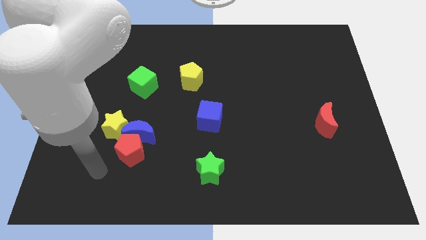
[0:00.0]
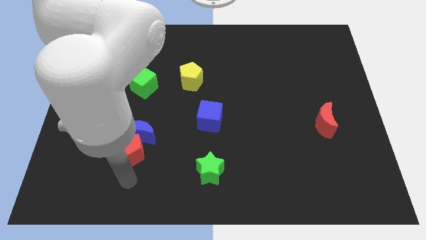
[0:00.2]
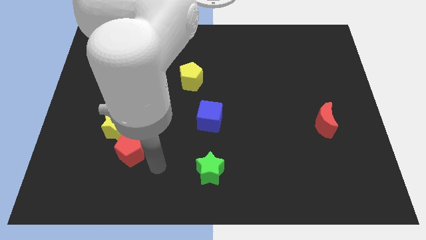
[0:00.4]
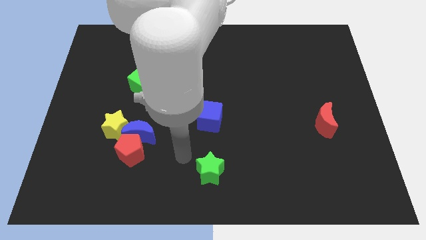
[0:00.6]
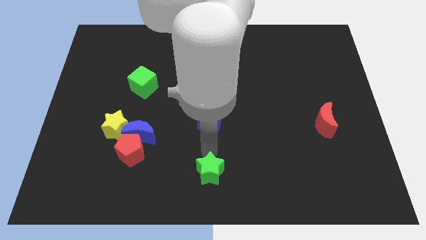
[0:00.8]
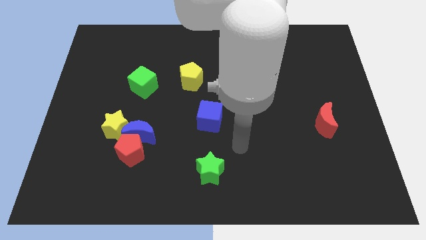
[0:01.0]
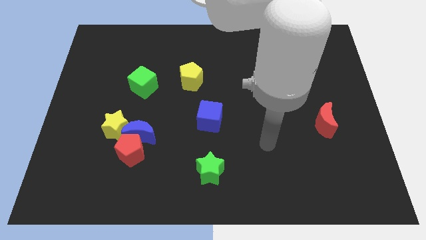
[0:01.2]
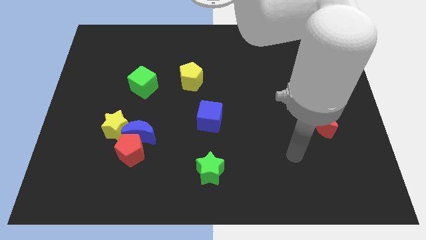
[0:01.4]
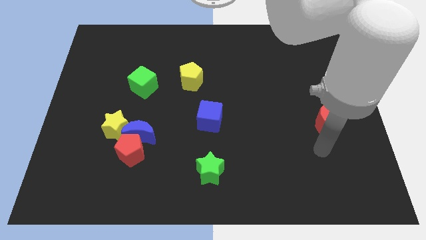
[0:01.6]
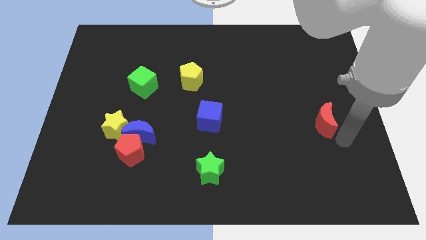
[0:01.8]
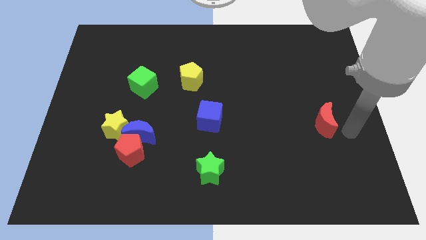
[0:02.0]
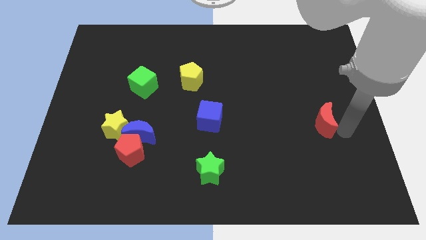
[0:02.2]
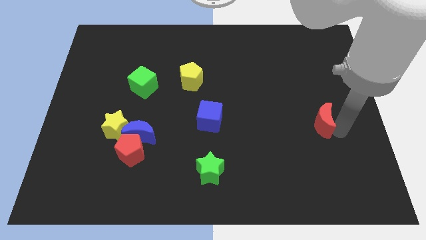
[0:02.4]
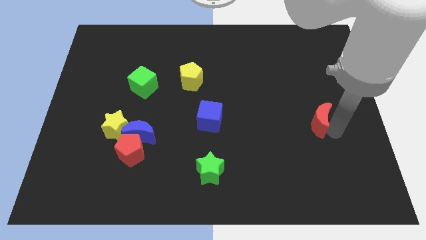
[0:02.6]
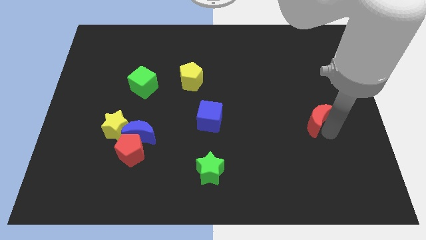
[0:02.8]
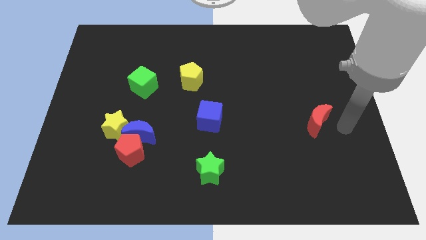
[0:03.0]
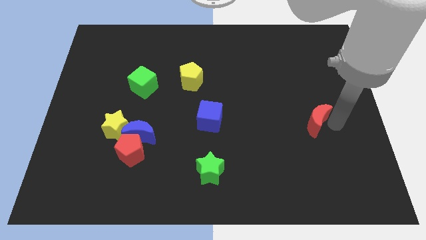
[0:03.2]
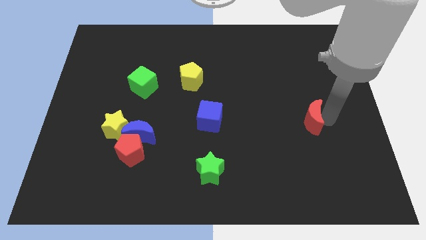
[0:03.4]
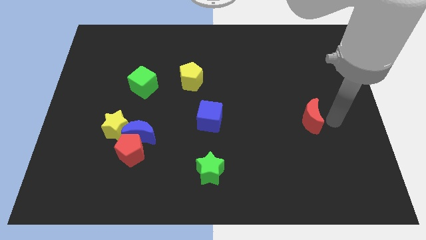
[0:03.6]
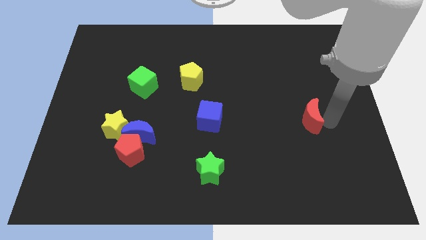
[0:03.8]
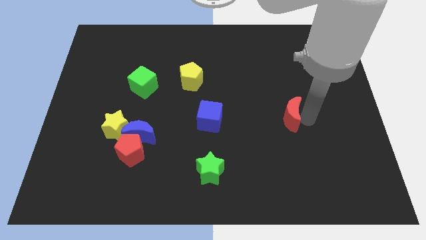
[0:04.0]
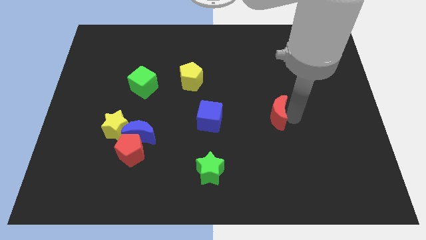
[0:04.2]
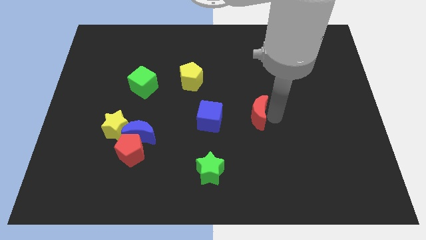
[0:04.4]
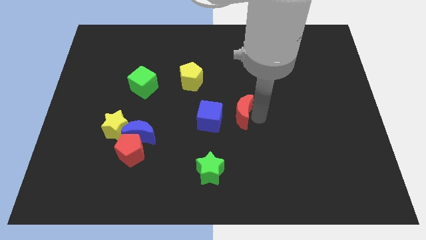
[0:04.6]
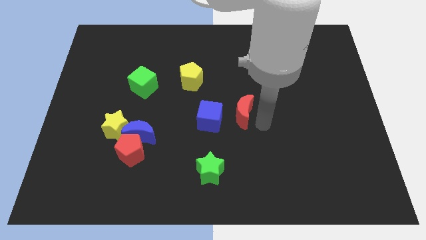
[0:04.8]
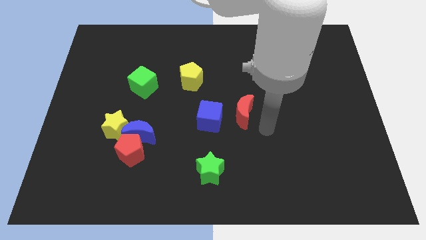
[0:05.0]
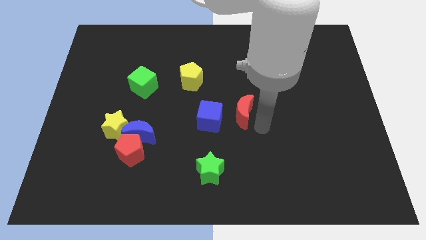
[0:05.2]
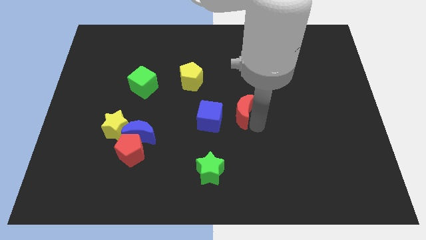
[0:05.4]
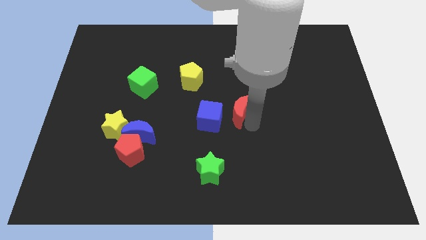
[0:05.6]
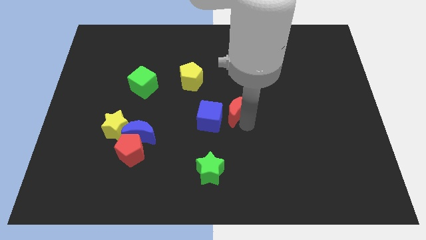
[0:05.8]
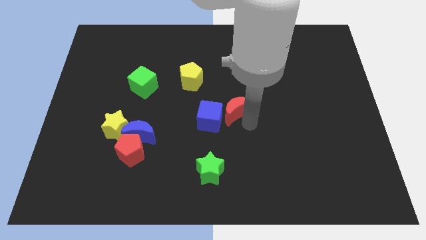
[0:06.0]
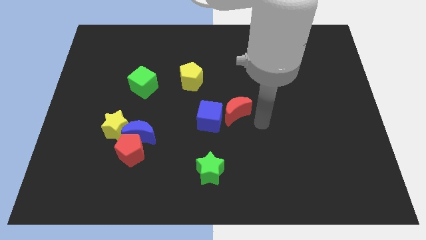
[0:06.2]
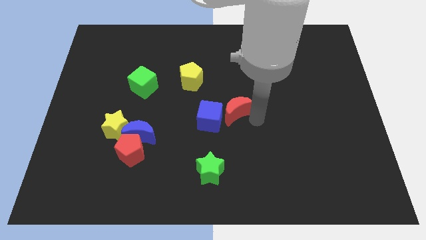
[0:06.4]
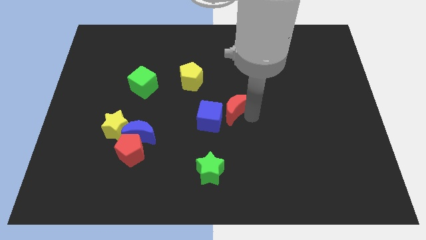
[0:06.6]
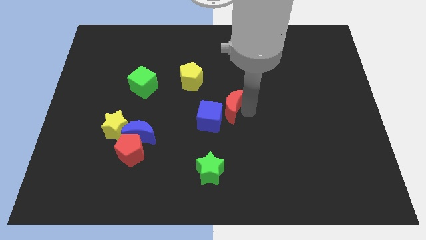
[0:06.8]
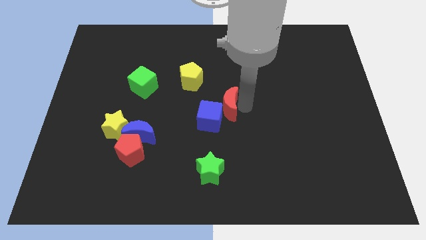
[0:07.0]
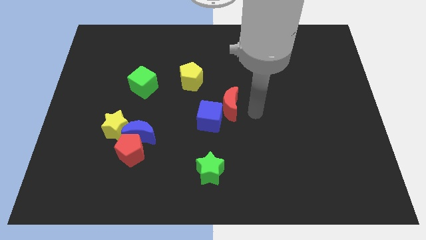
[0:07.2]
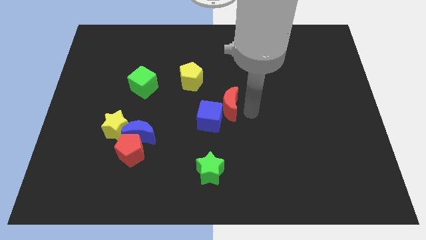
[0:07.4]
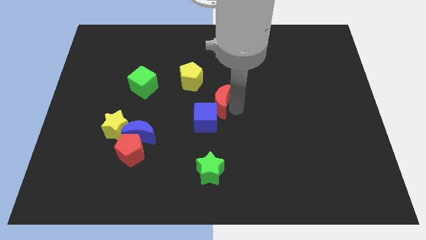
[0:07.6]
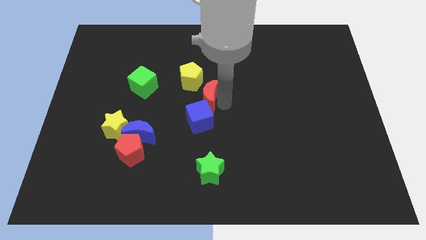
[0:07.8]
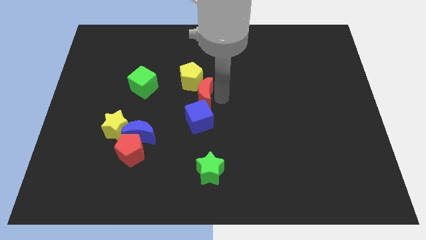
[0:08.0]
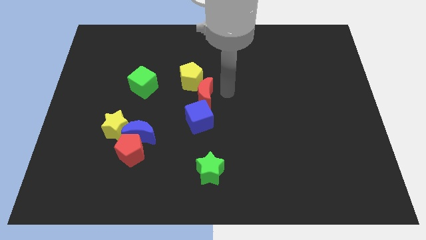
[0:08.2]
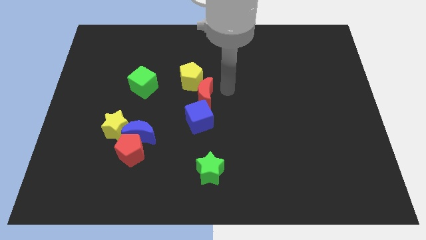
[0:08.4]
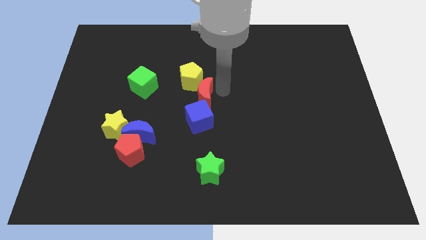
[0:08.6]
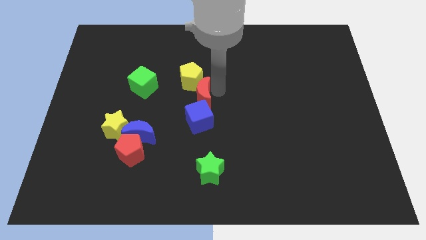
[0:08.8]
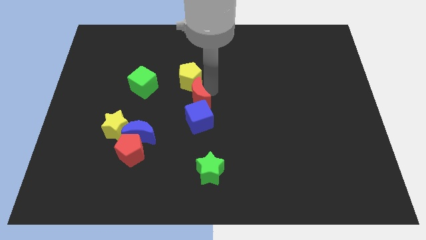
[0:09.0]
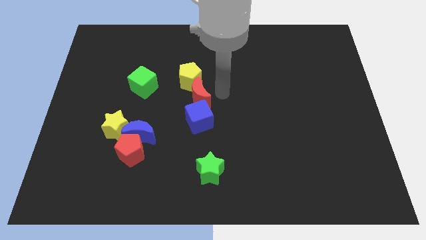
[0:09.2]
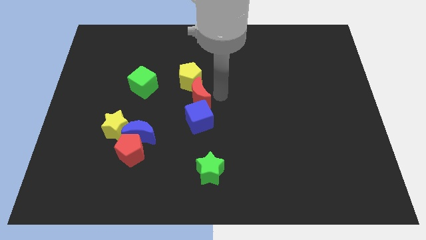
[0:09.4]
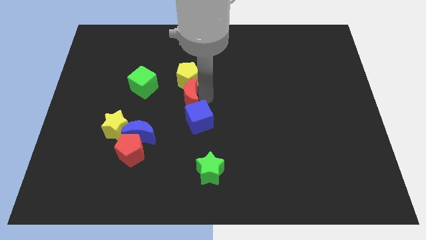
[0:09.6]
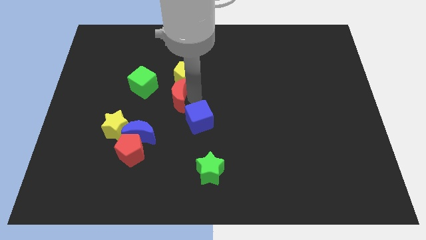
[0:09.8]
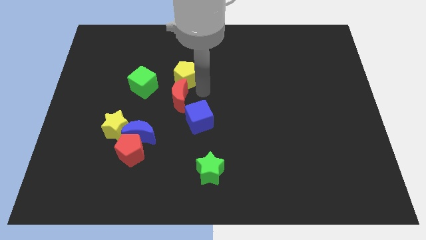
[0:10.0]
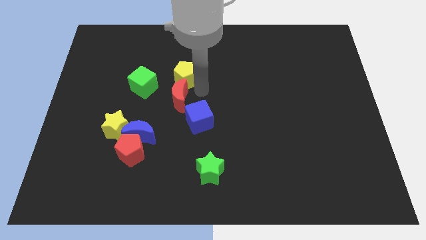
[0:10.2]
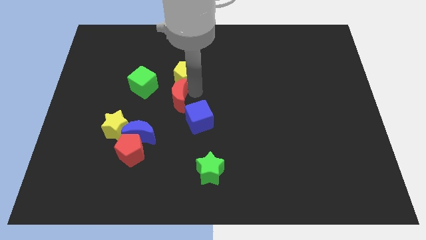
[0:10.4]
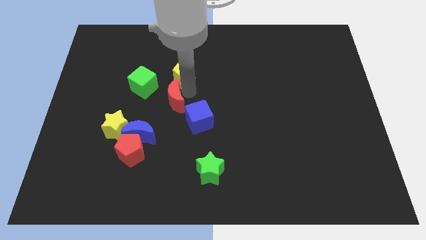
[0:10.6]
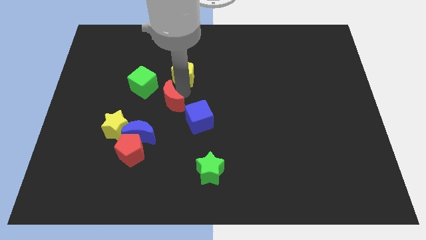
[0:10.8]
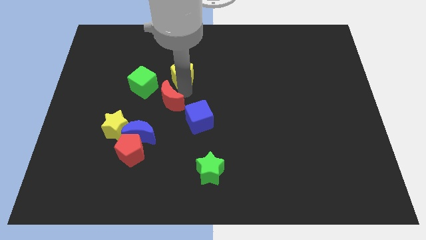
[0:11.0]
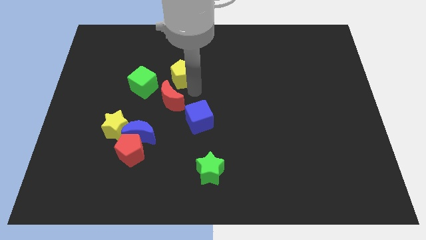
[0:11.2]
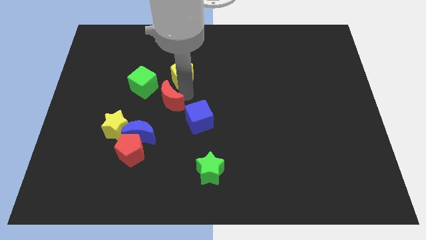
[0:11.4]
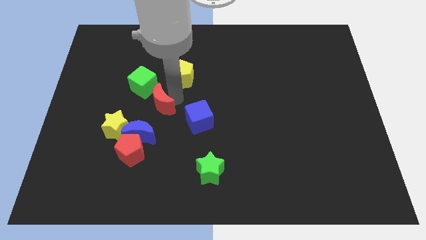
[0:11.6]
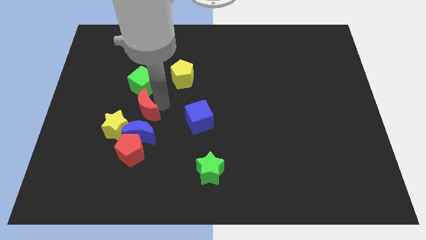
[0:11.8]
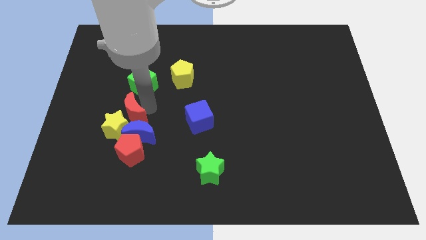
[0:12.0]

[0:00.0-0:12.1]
move the red moon close to the yellow star
